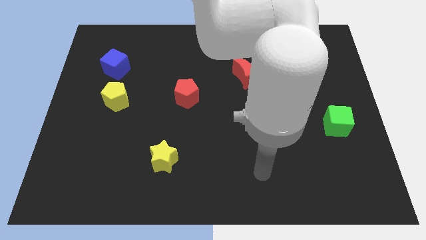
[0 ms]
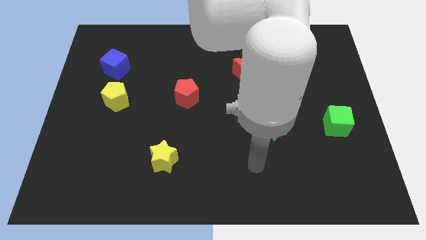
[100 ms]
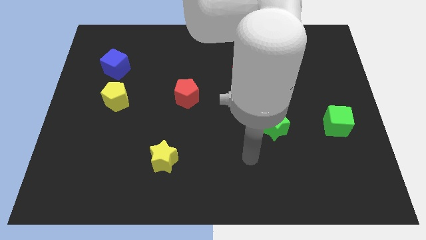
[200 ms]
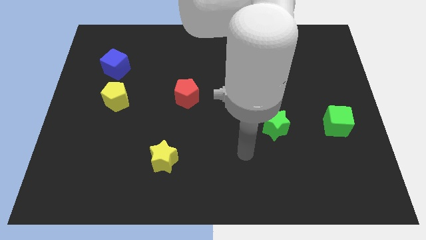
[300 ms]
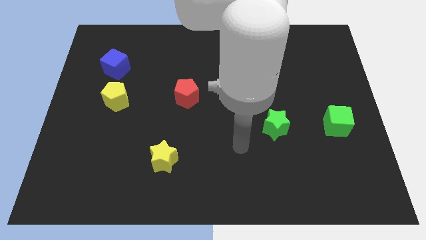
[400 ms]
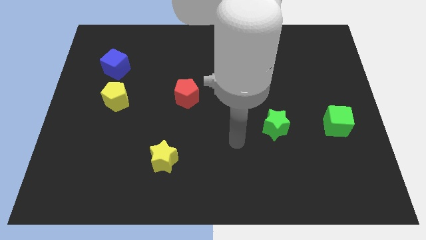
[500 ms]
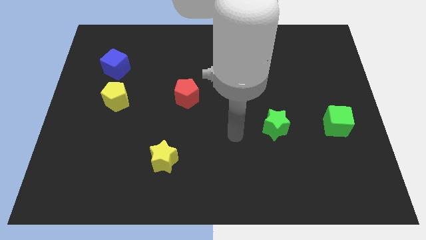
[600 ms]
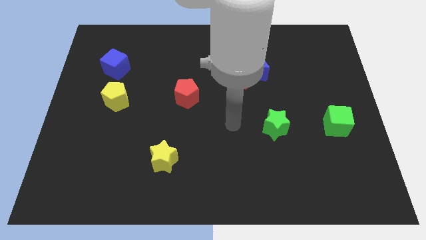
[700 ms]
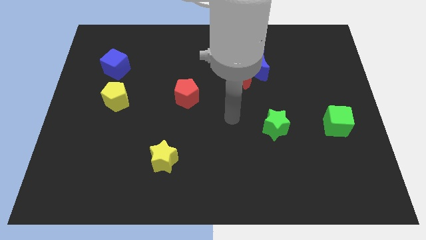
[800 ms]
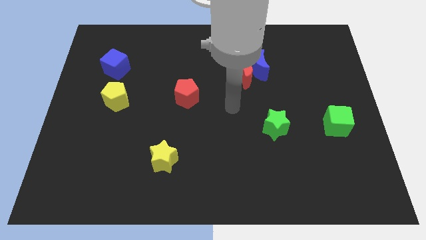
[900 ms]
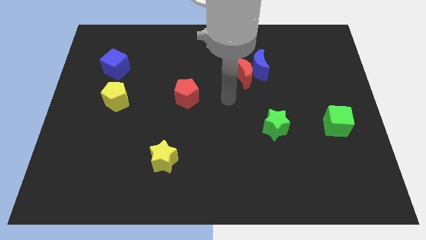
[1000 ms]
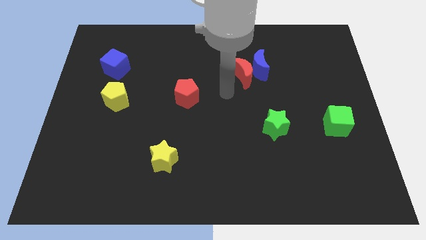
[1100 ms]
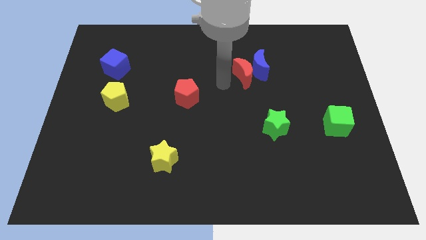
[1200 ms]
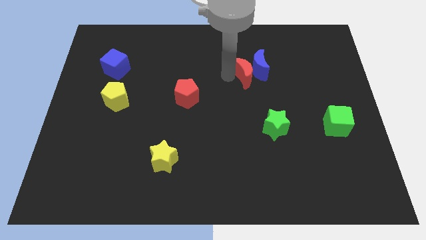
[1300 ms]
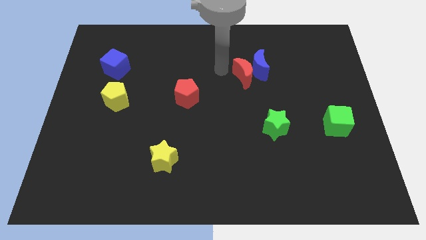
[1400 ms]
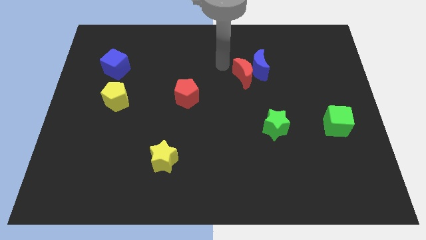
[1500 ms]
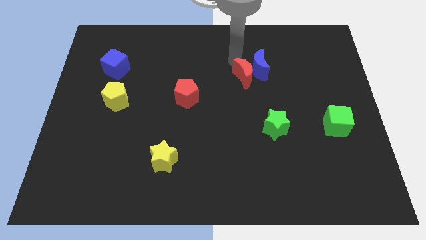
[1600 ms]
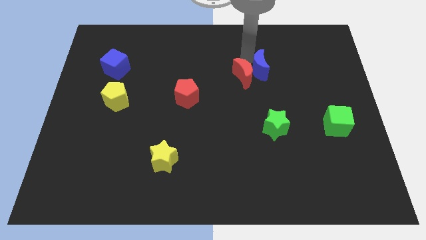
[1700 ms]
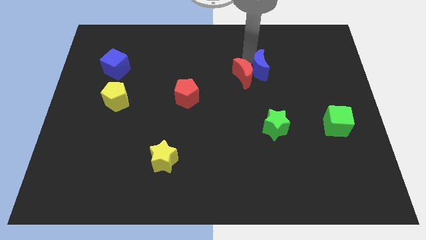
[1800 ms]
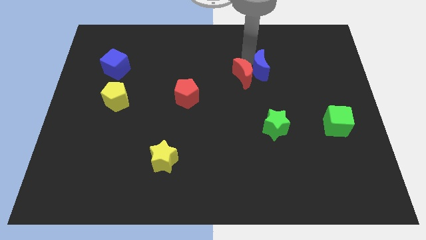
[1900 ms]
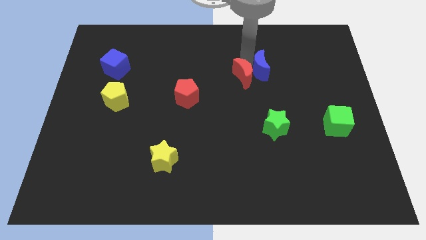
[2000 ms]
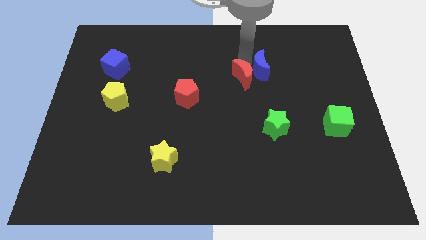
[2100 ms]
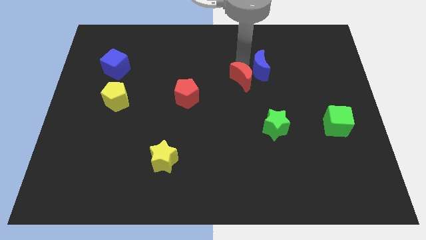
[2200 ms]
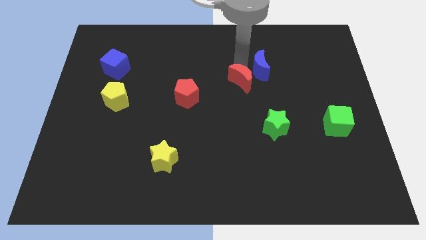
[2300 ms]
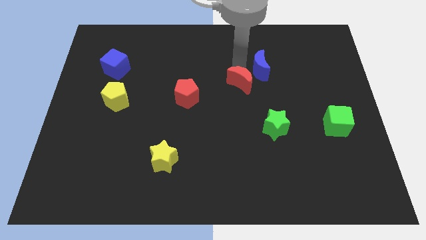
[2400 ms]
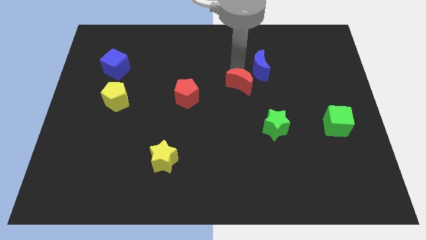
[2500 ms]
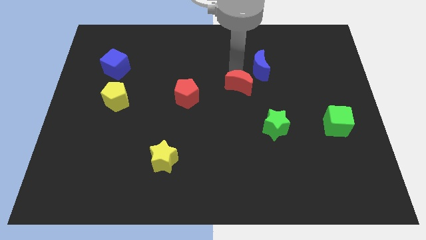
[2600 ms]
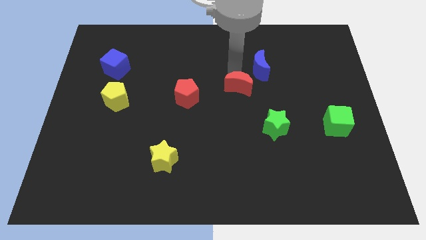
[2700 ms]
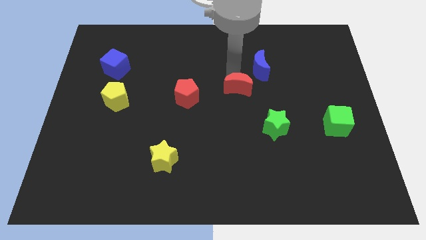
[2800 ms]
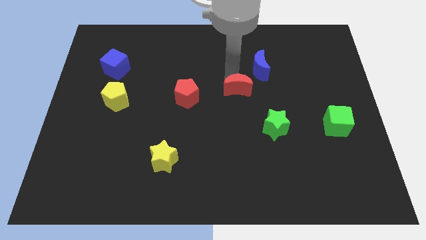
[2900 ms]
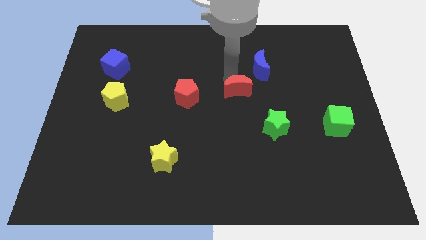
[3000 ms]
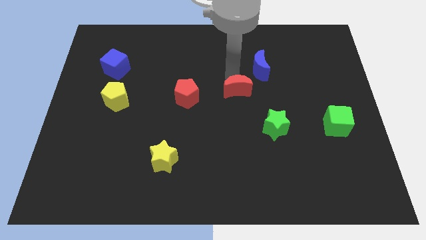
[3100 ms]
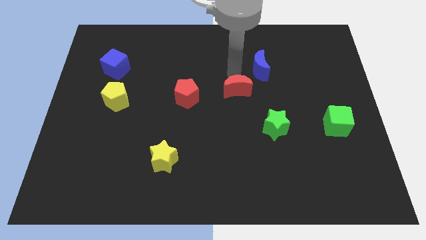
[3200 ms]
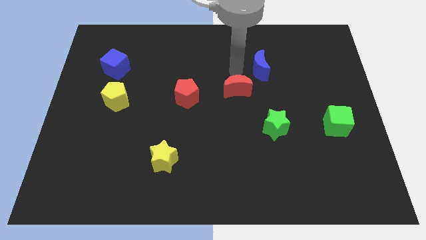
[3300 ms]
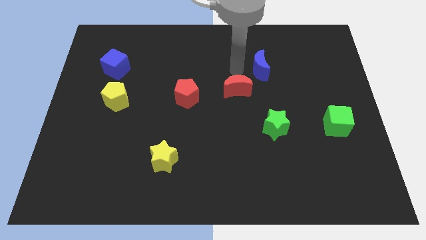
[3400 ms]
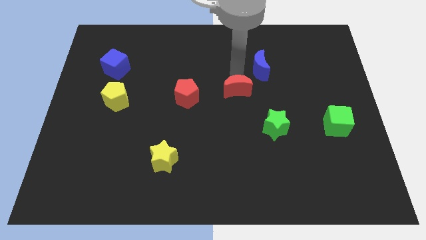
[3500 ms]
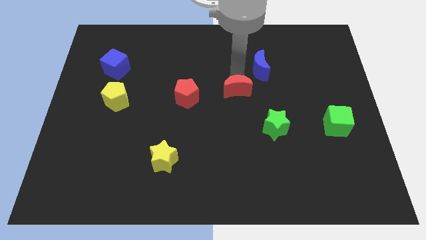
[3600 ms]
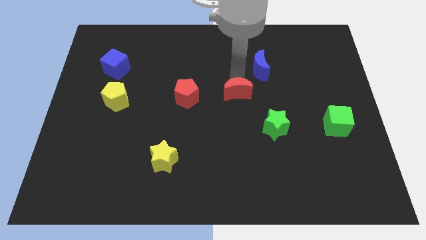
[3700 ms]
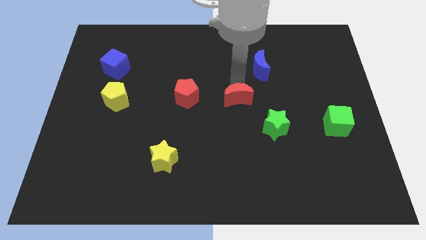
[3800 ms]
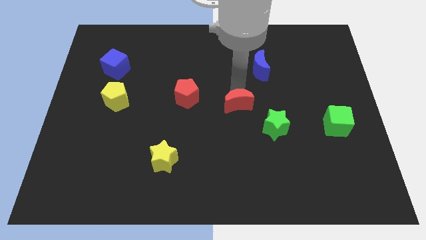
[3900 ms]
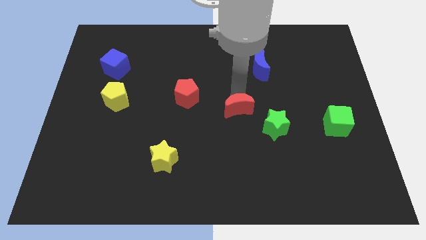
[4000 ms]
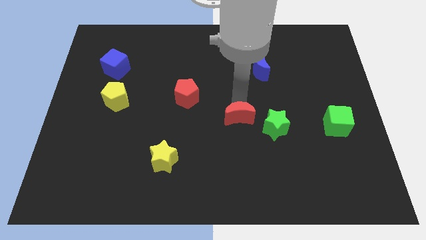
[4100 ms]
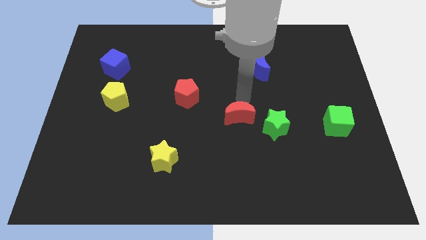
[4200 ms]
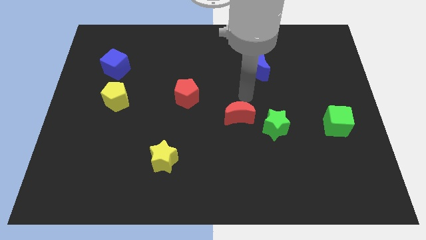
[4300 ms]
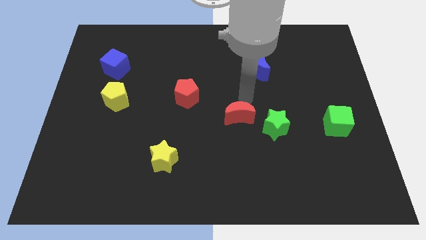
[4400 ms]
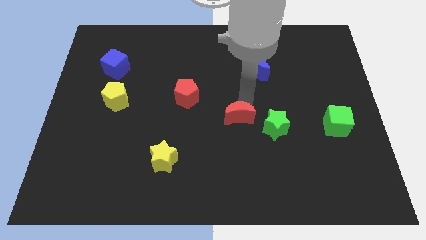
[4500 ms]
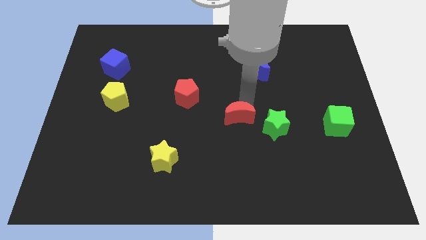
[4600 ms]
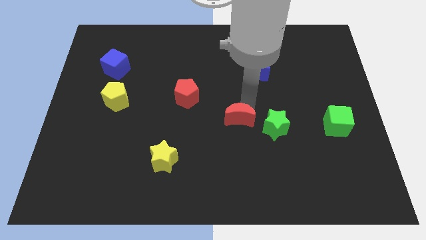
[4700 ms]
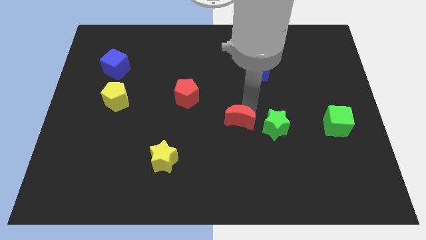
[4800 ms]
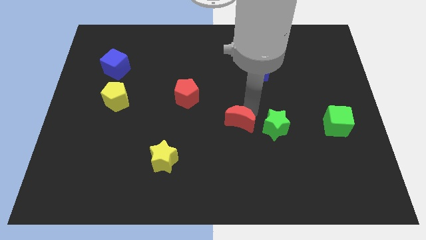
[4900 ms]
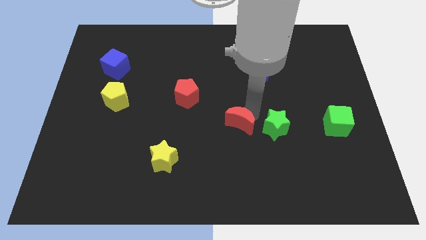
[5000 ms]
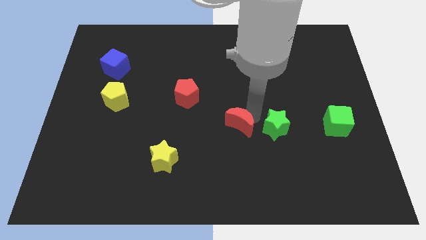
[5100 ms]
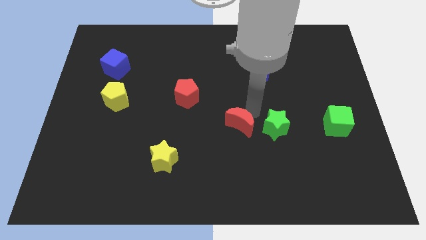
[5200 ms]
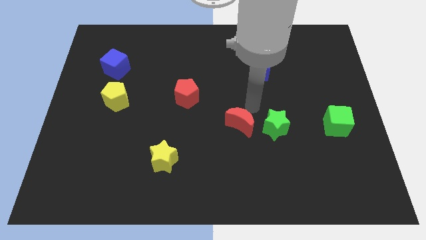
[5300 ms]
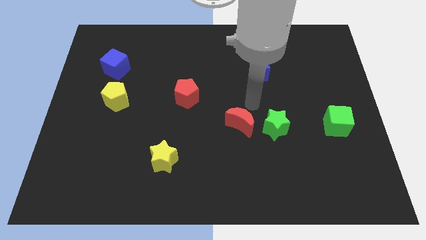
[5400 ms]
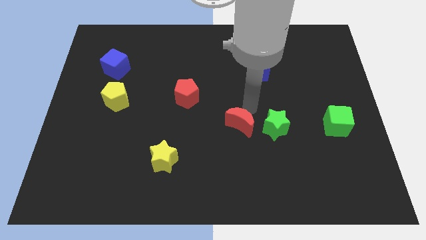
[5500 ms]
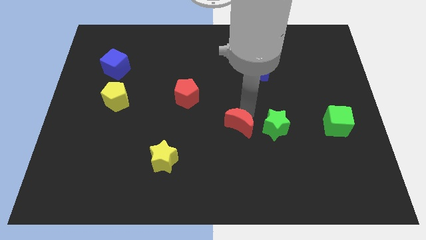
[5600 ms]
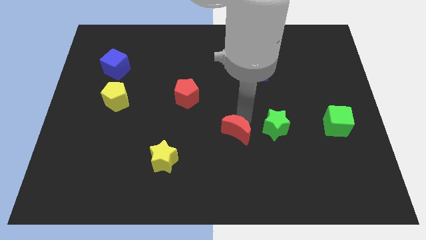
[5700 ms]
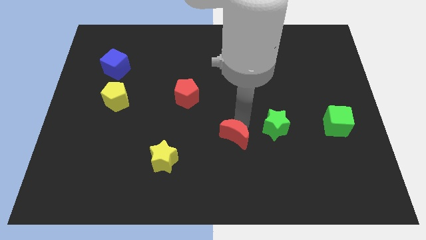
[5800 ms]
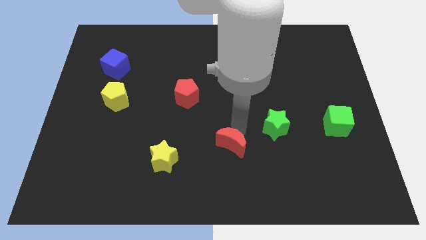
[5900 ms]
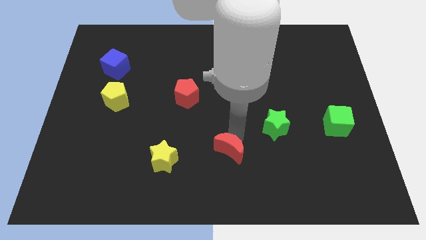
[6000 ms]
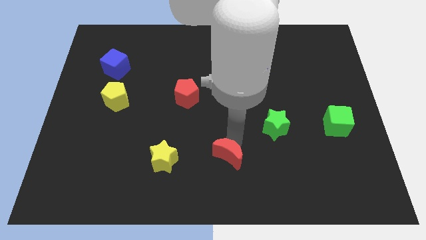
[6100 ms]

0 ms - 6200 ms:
push the red moon to the bottom

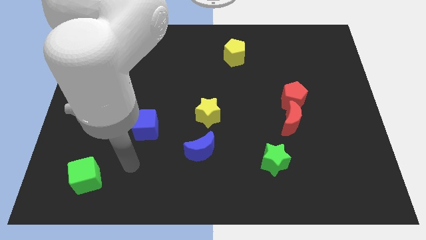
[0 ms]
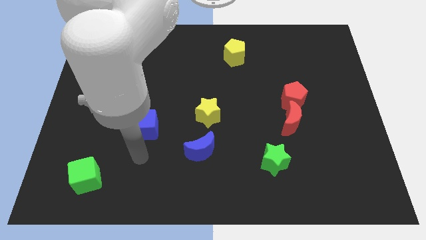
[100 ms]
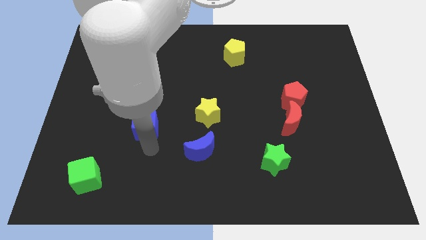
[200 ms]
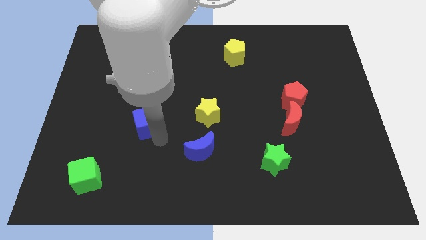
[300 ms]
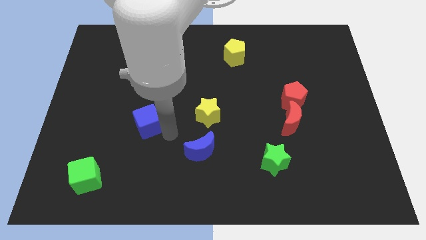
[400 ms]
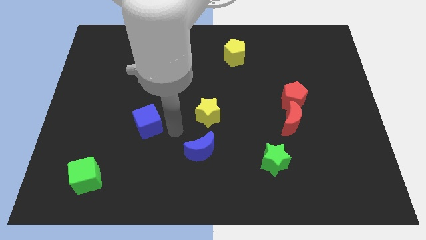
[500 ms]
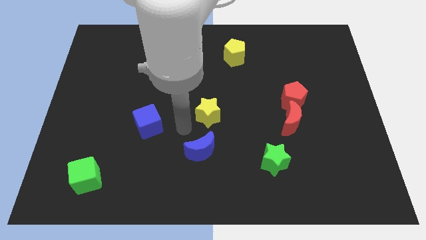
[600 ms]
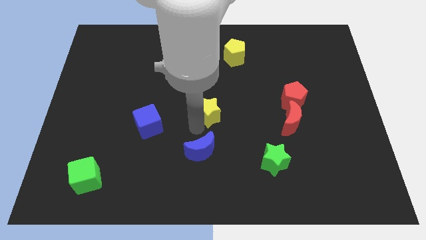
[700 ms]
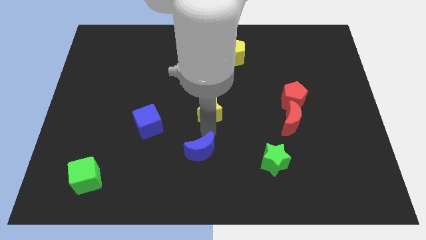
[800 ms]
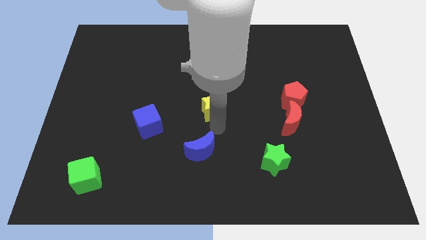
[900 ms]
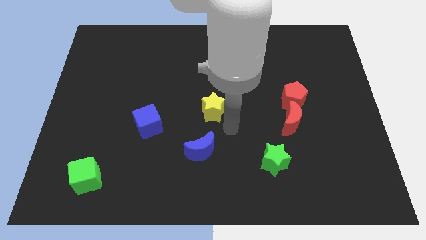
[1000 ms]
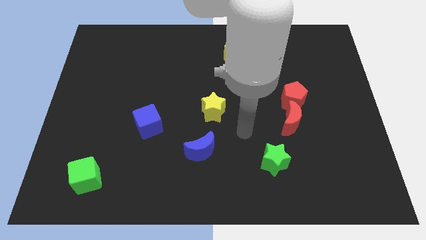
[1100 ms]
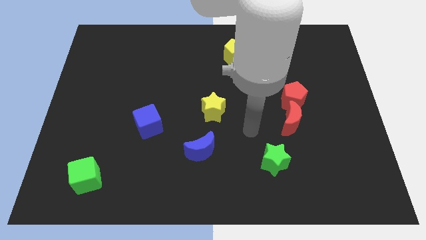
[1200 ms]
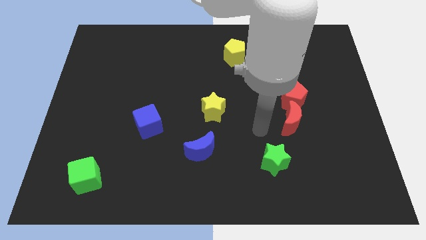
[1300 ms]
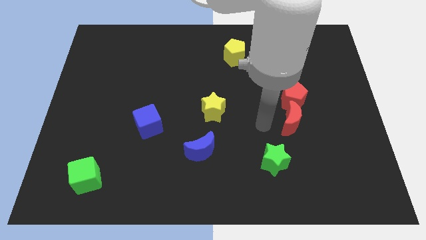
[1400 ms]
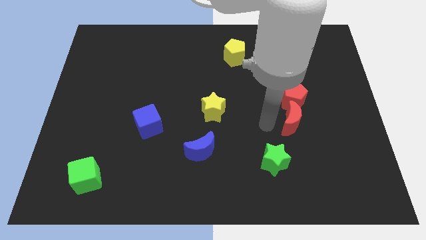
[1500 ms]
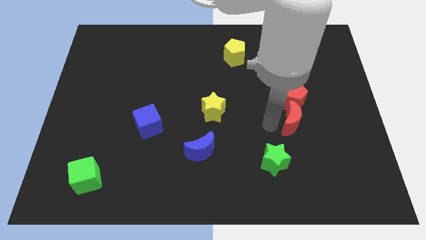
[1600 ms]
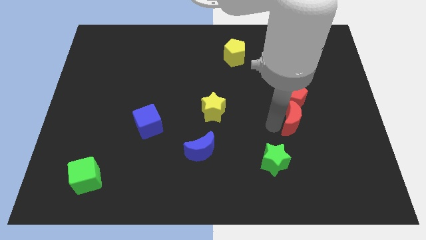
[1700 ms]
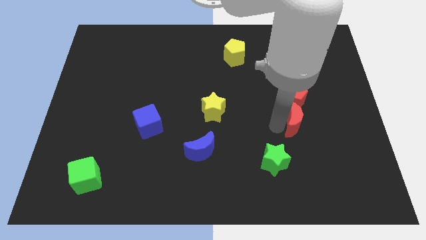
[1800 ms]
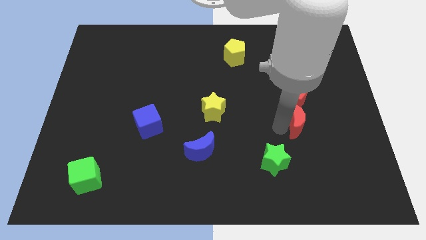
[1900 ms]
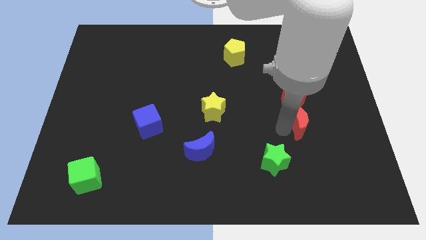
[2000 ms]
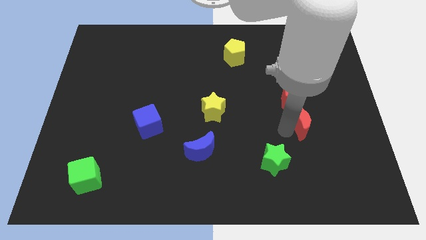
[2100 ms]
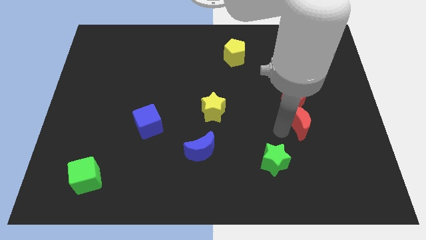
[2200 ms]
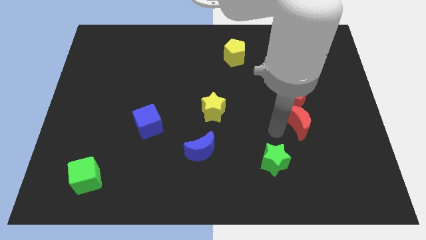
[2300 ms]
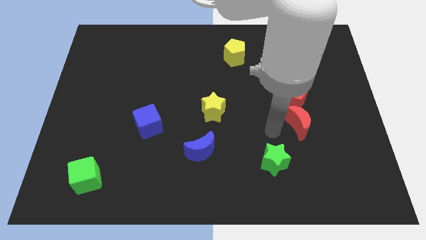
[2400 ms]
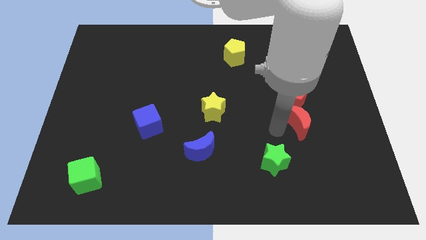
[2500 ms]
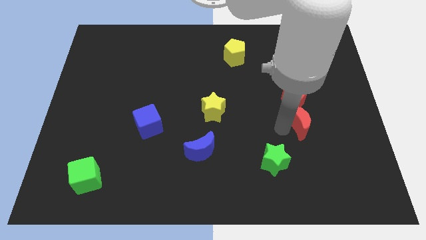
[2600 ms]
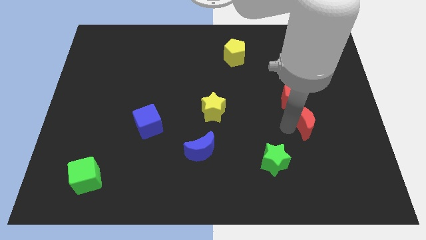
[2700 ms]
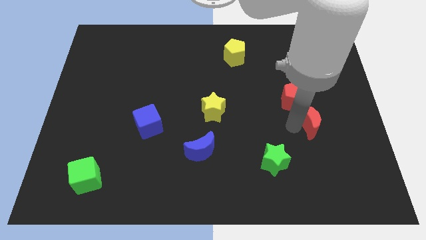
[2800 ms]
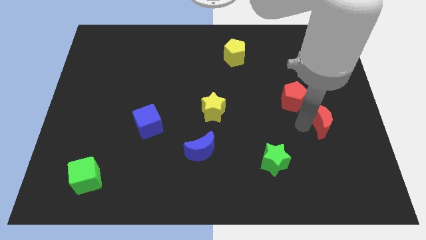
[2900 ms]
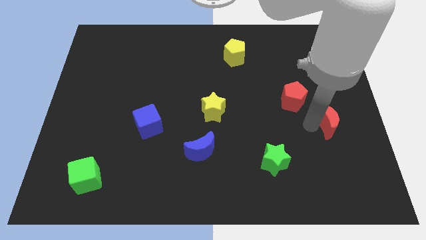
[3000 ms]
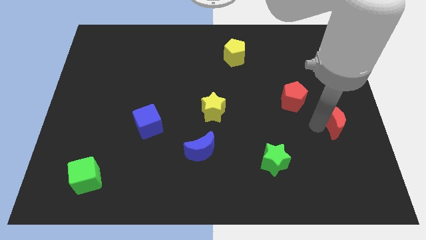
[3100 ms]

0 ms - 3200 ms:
push the red moon to the right side
